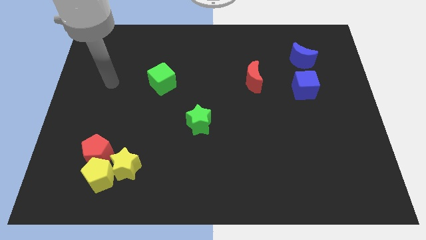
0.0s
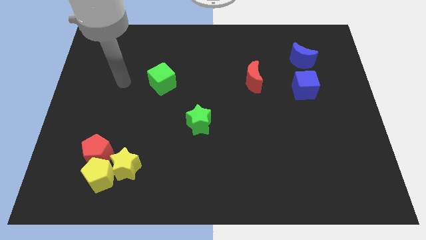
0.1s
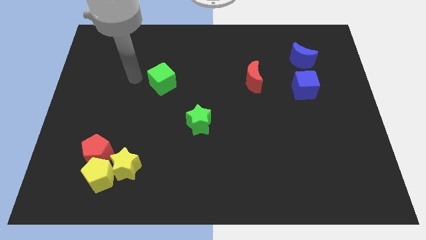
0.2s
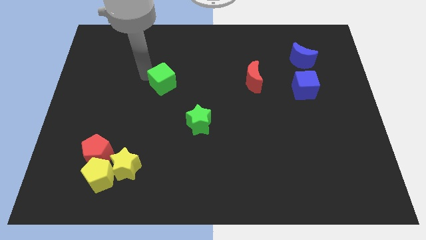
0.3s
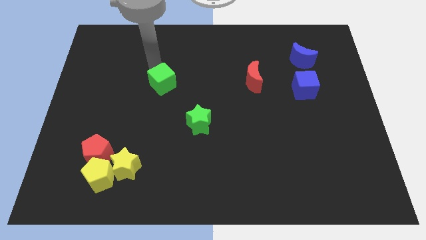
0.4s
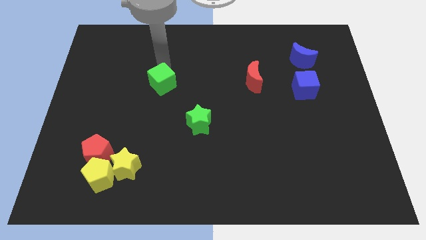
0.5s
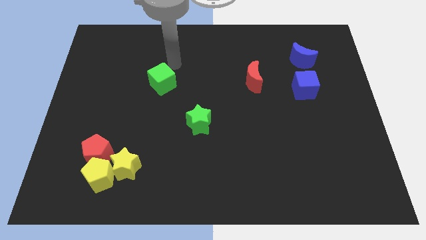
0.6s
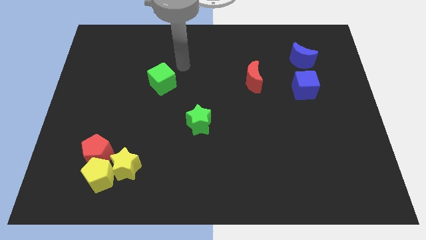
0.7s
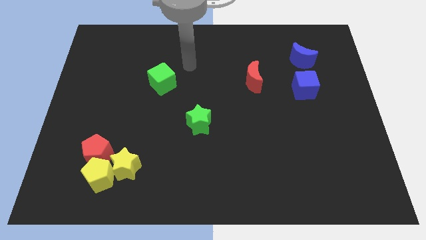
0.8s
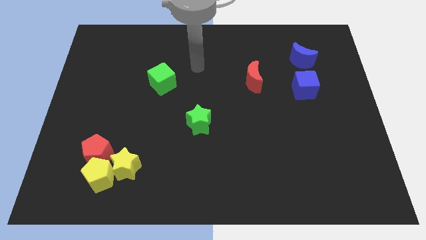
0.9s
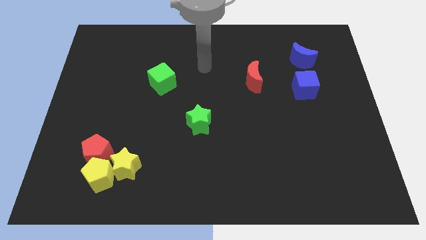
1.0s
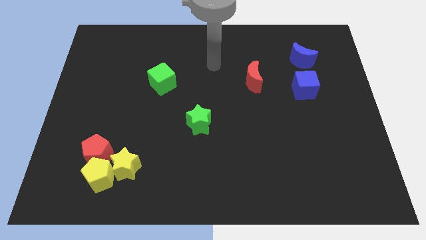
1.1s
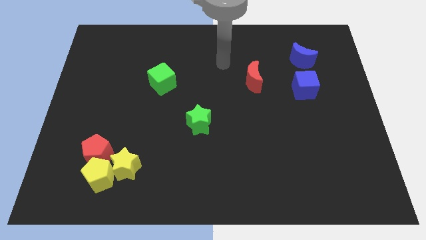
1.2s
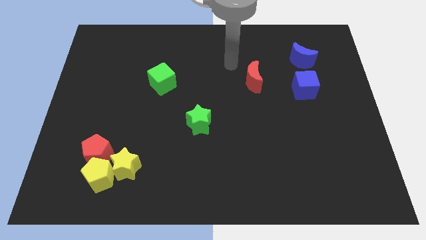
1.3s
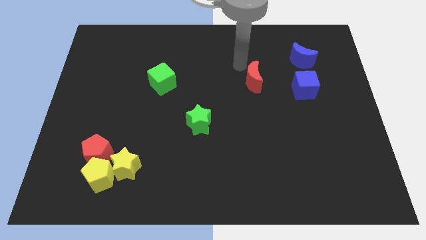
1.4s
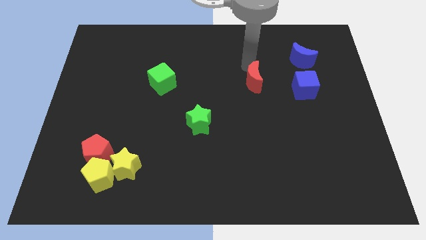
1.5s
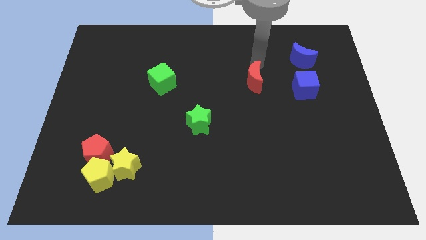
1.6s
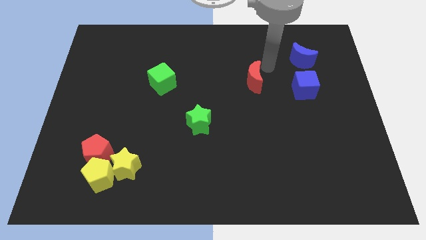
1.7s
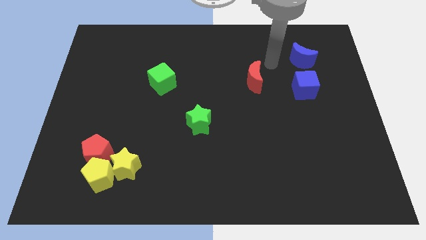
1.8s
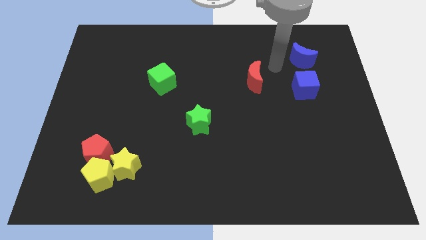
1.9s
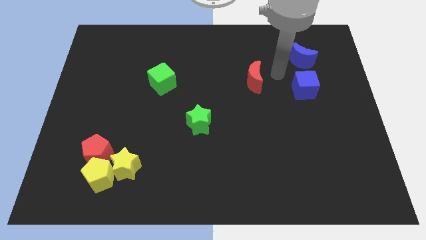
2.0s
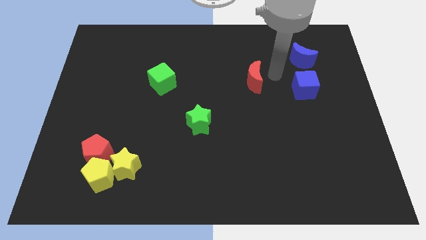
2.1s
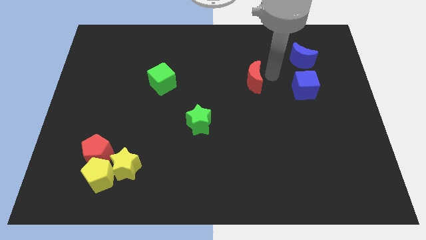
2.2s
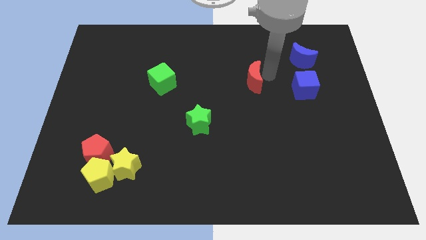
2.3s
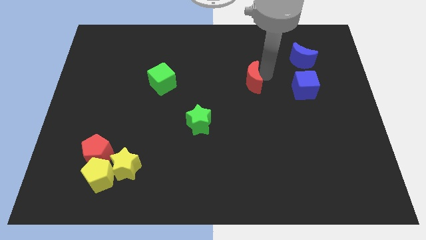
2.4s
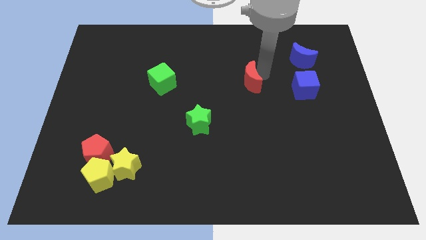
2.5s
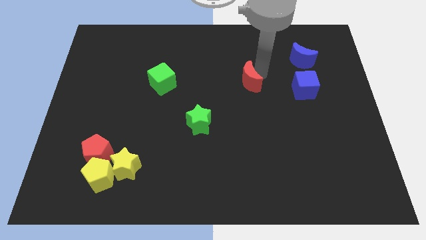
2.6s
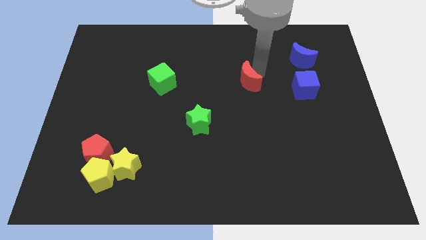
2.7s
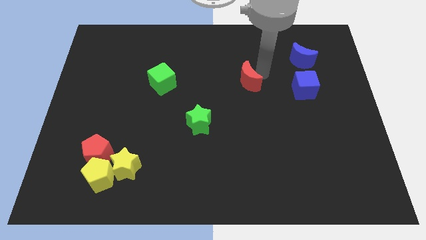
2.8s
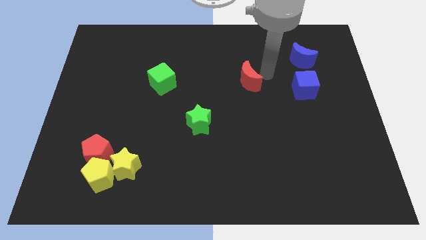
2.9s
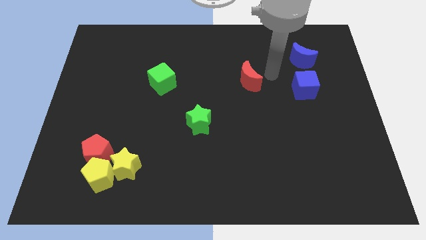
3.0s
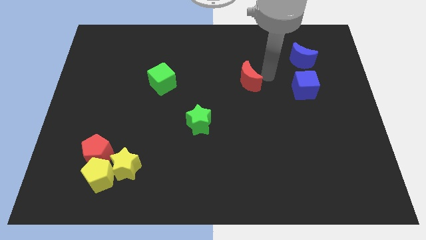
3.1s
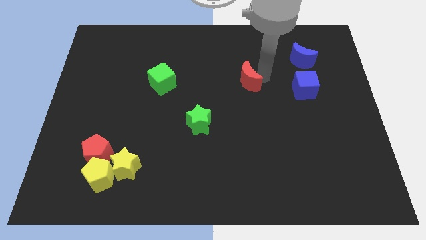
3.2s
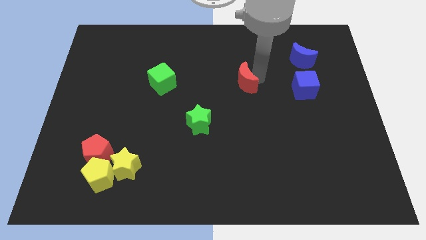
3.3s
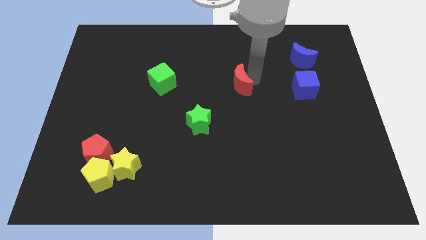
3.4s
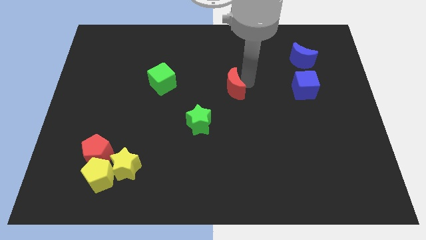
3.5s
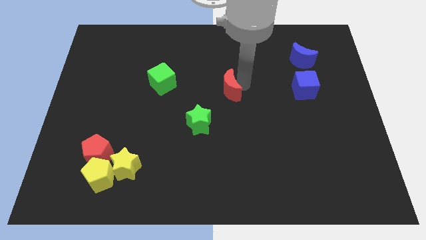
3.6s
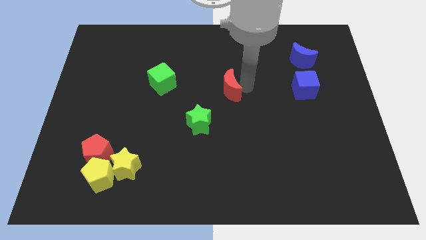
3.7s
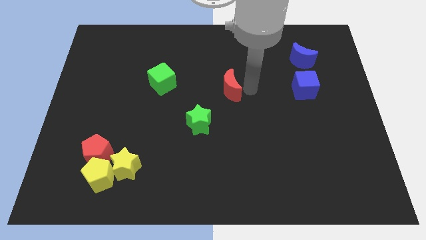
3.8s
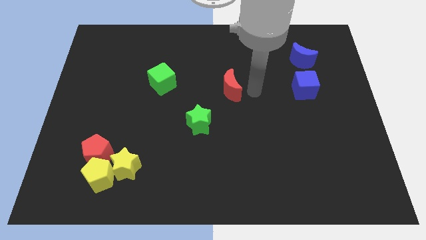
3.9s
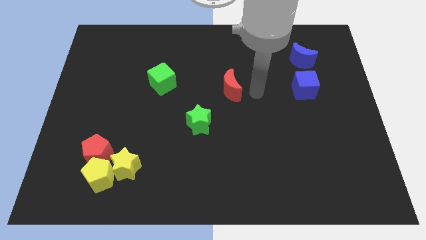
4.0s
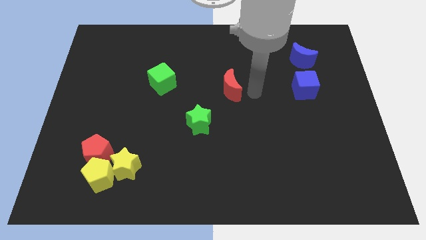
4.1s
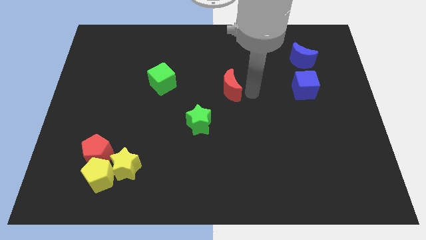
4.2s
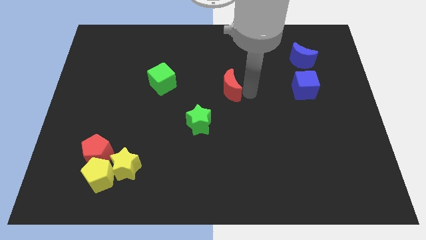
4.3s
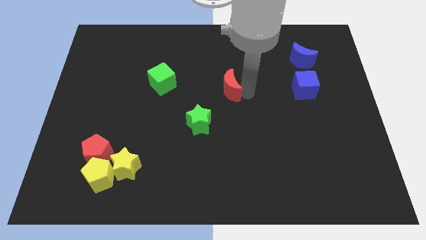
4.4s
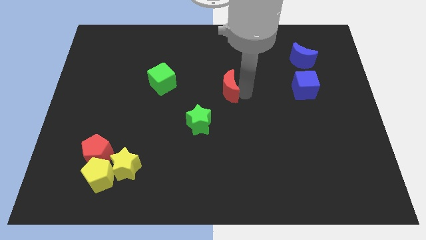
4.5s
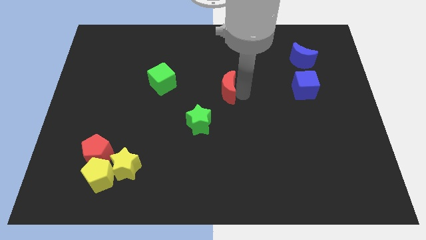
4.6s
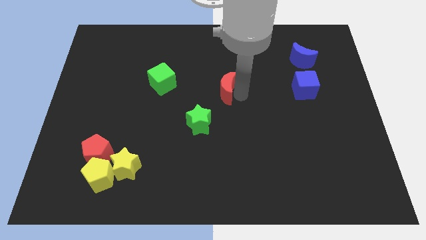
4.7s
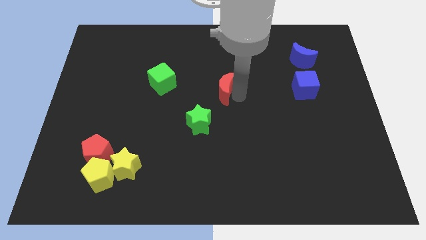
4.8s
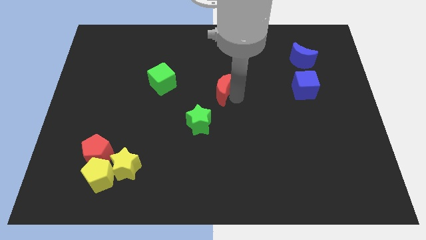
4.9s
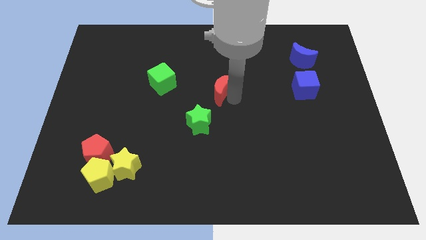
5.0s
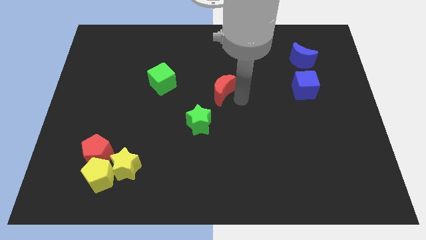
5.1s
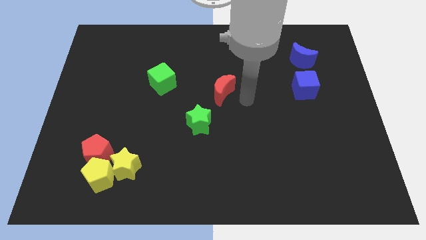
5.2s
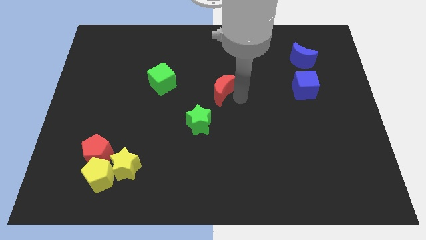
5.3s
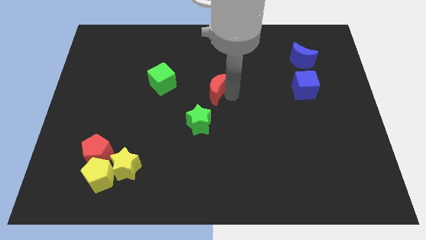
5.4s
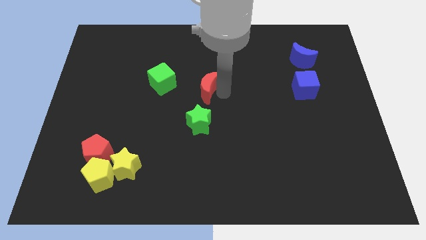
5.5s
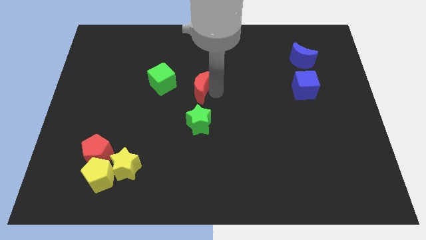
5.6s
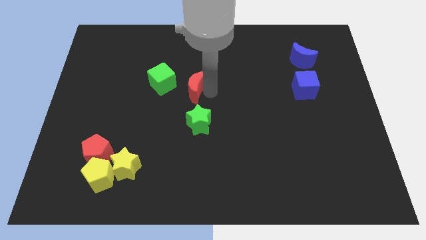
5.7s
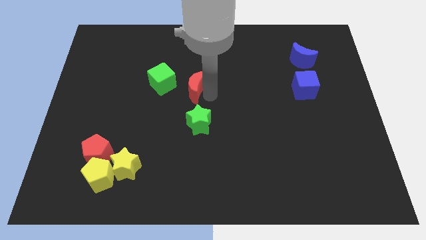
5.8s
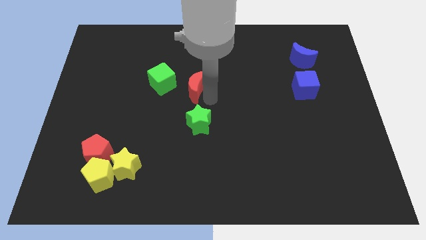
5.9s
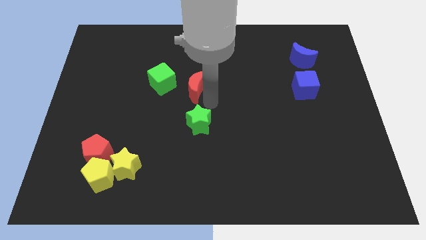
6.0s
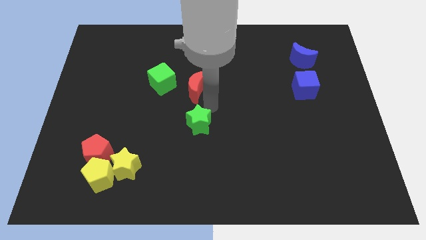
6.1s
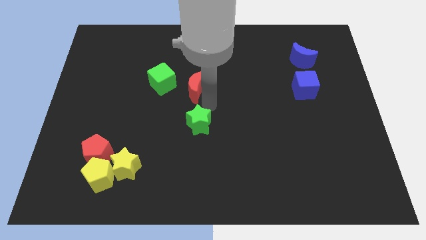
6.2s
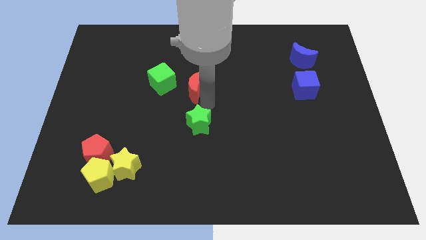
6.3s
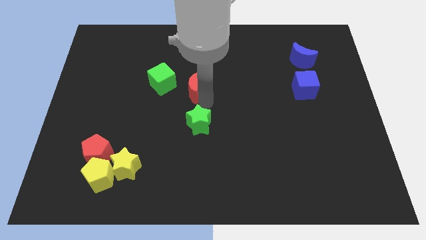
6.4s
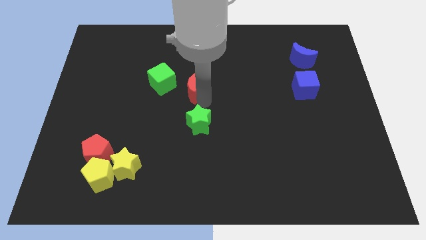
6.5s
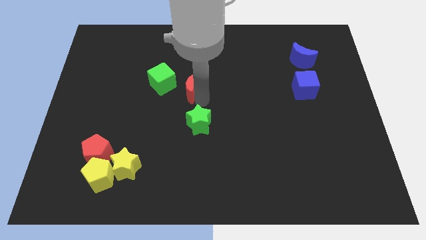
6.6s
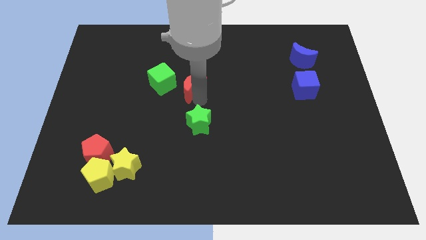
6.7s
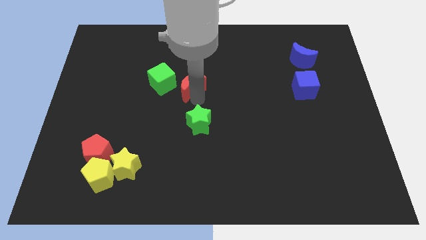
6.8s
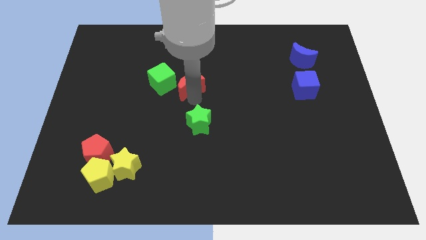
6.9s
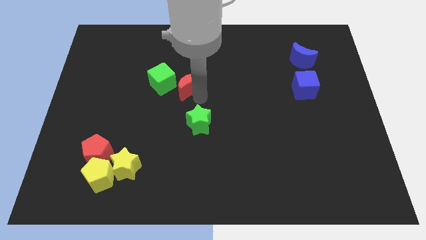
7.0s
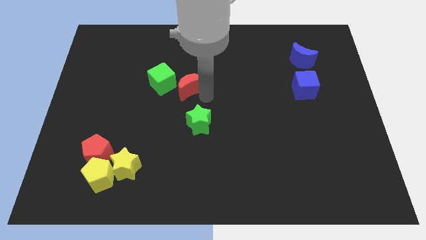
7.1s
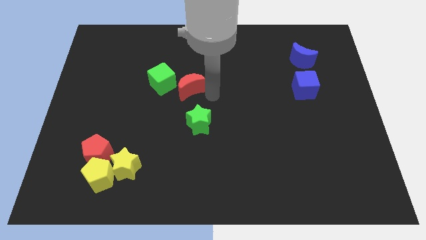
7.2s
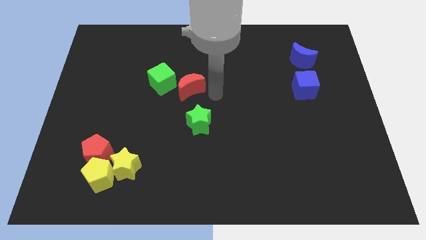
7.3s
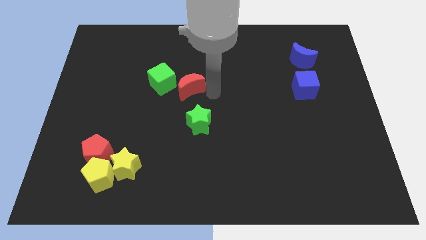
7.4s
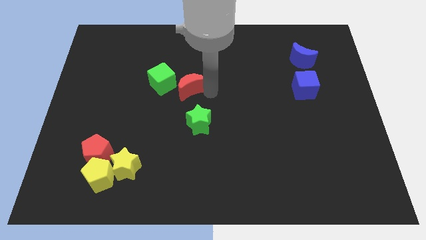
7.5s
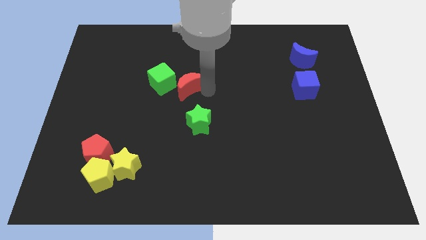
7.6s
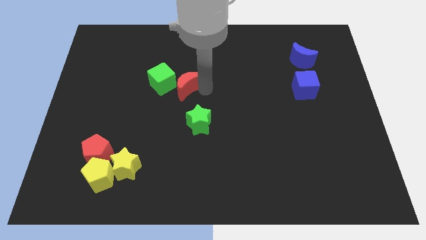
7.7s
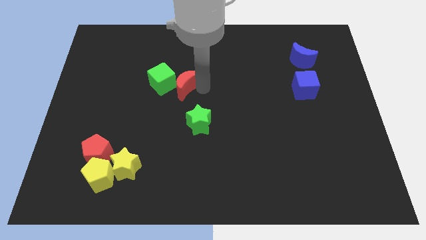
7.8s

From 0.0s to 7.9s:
move the red moon towards the green cube

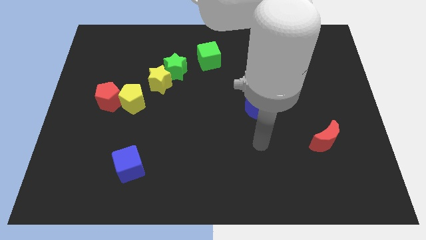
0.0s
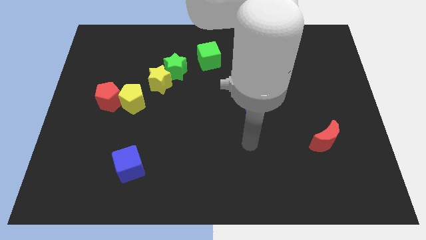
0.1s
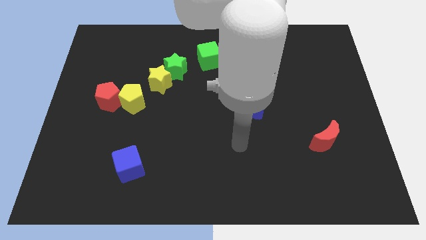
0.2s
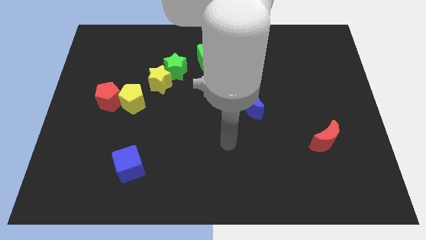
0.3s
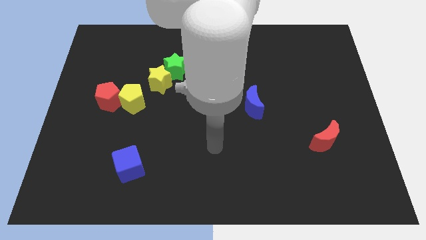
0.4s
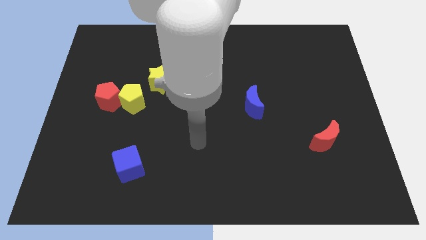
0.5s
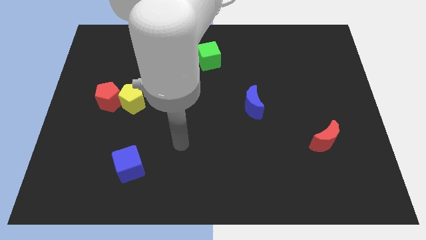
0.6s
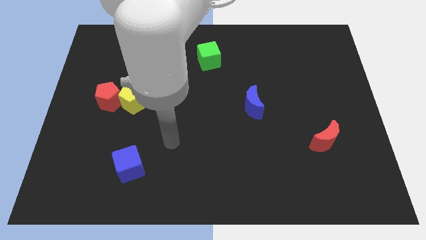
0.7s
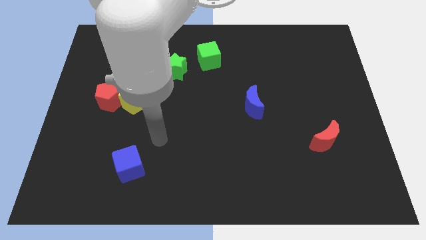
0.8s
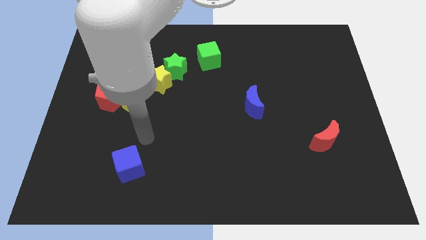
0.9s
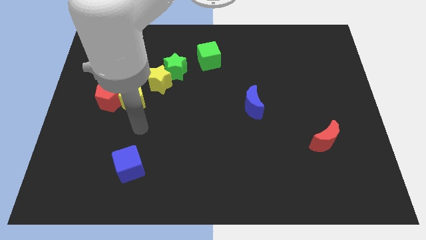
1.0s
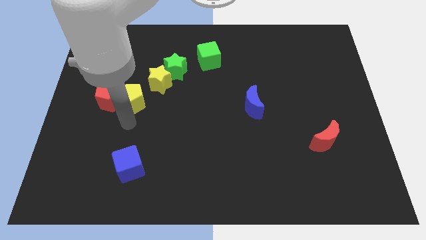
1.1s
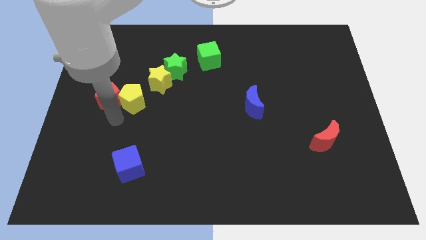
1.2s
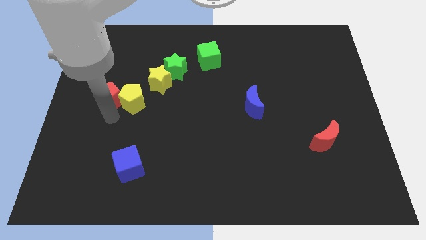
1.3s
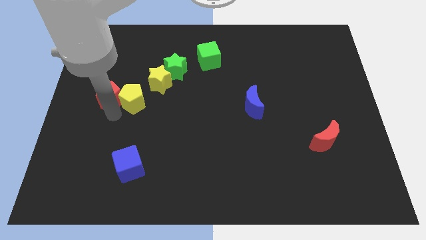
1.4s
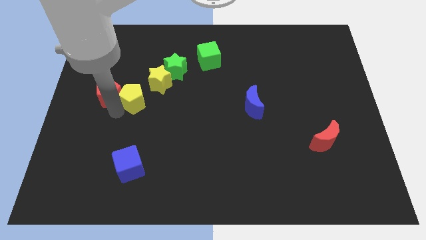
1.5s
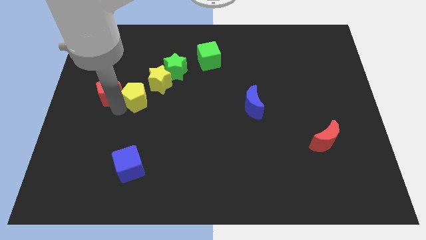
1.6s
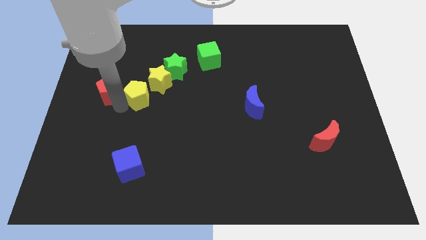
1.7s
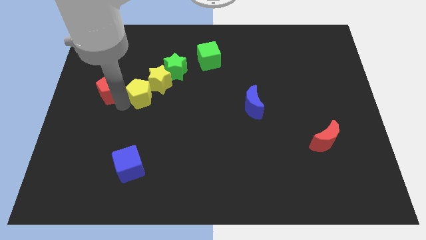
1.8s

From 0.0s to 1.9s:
slide the yellow pentagon to the yellow star
